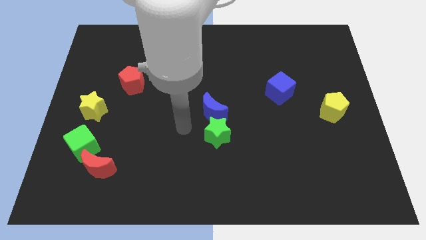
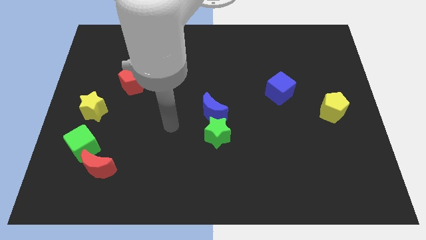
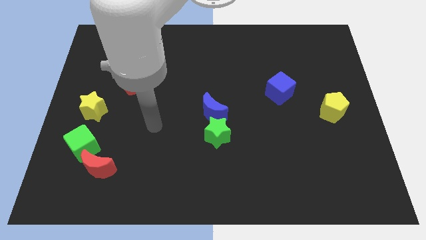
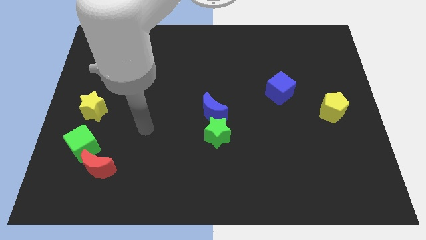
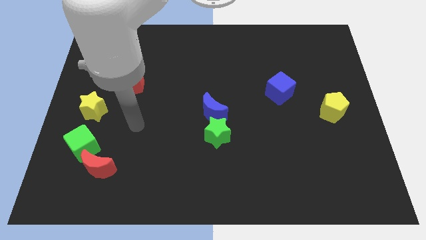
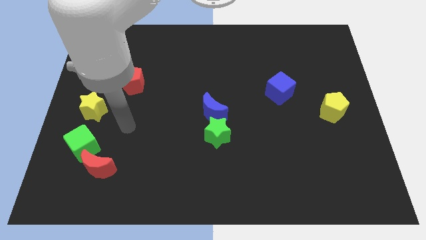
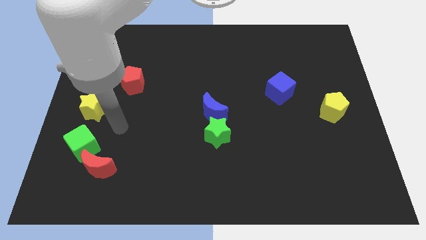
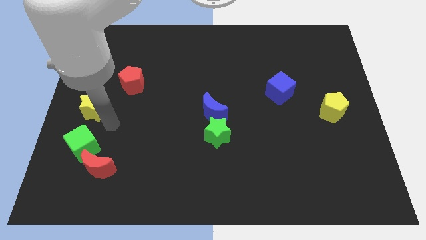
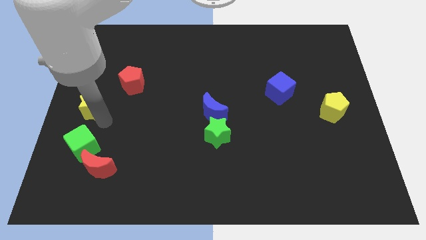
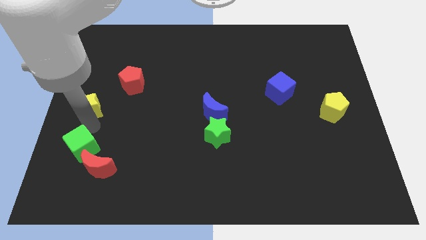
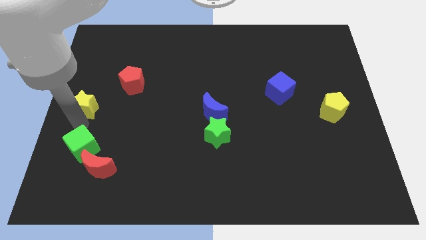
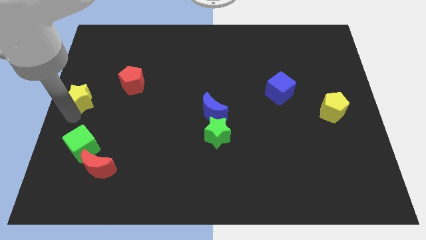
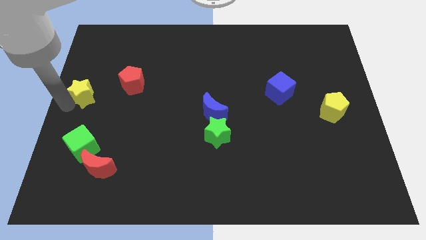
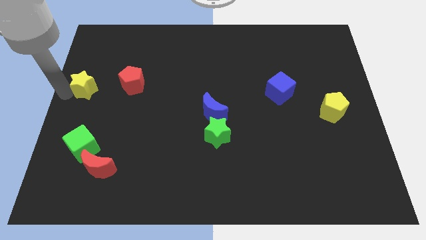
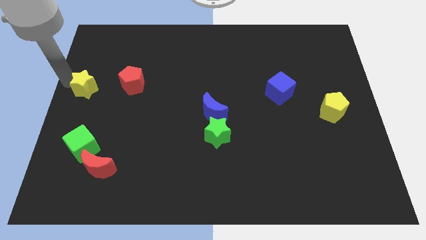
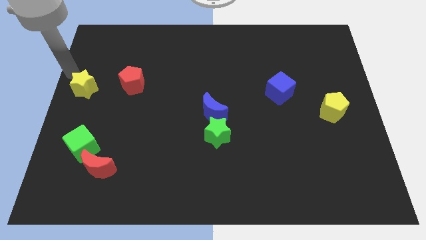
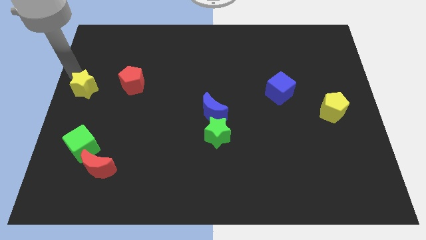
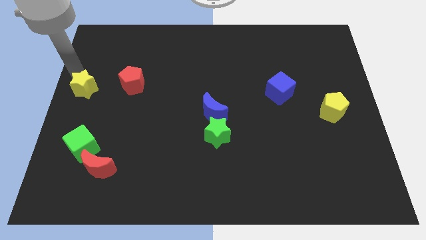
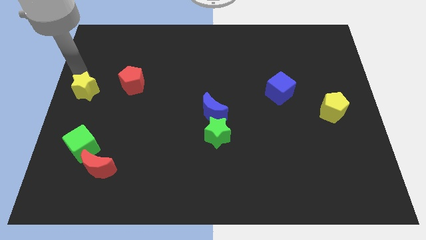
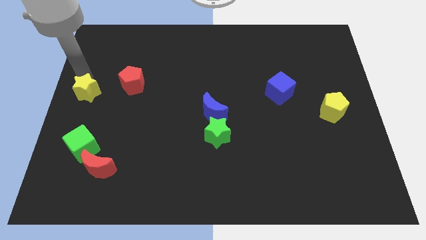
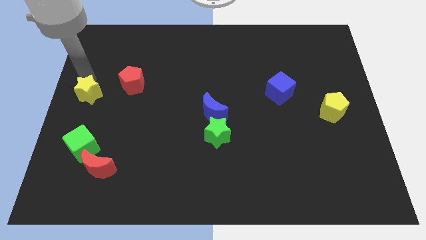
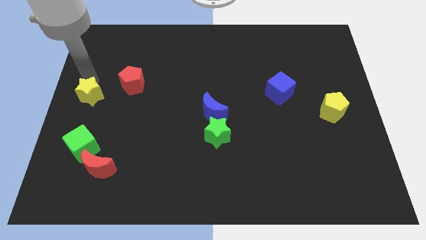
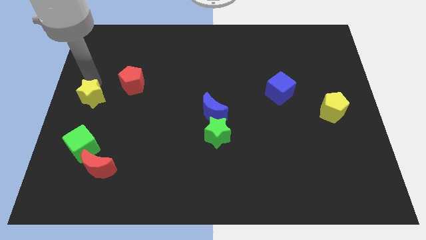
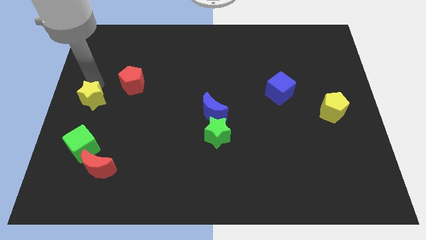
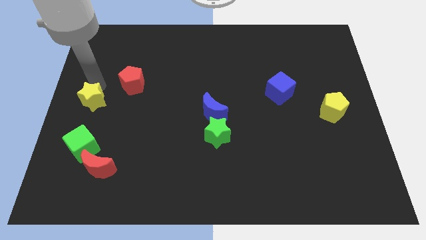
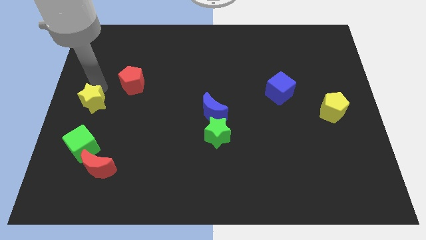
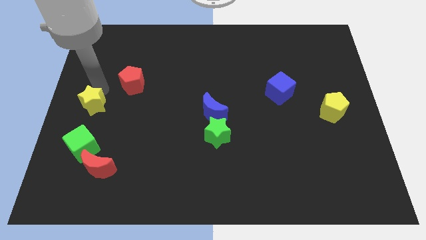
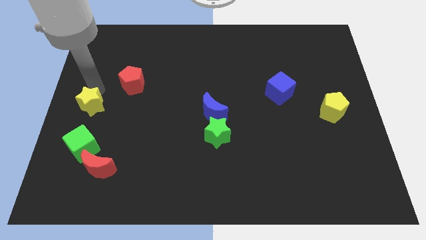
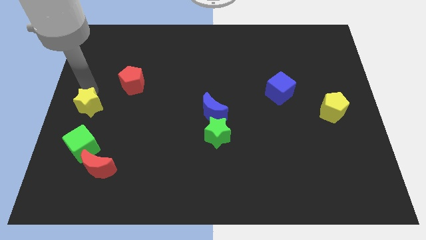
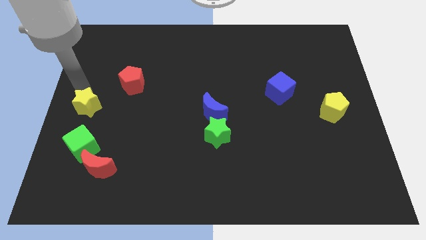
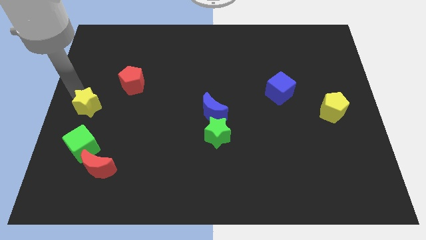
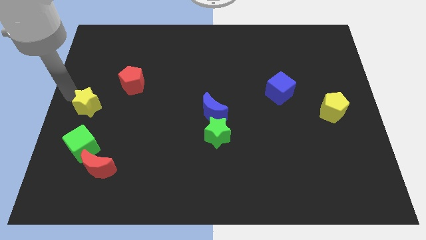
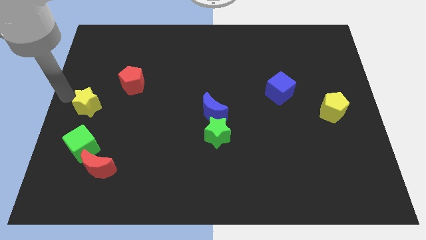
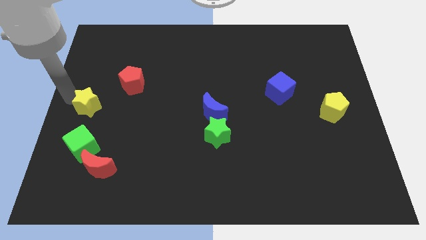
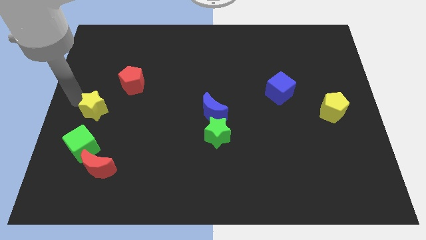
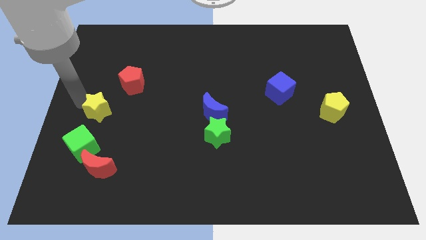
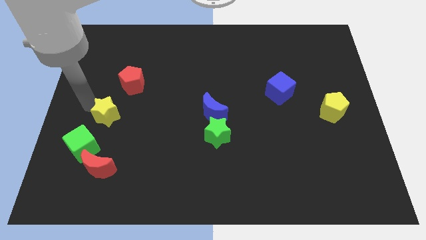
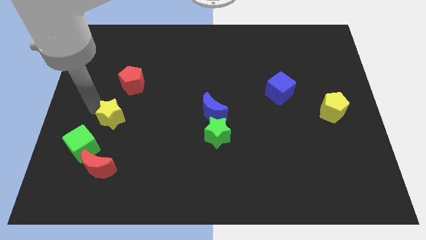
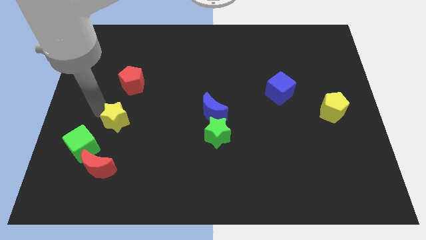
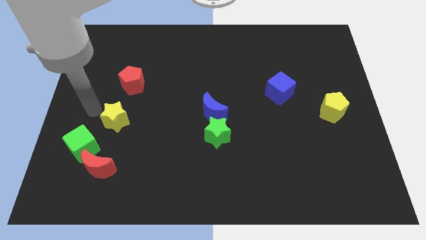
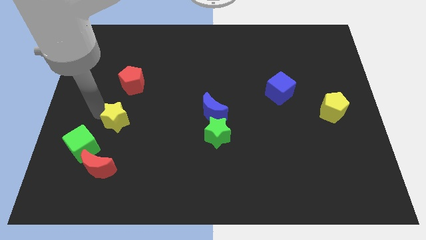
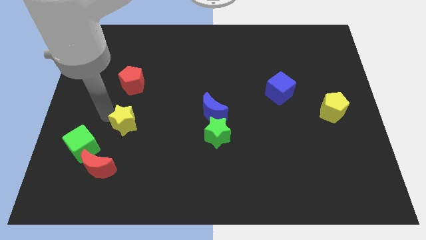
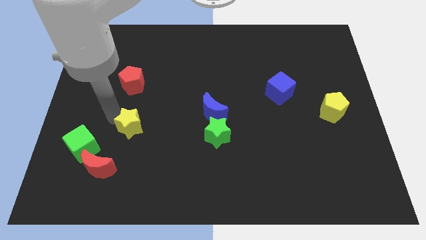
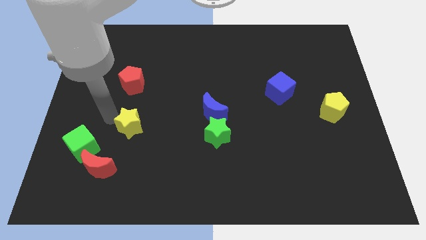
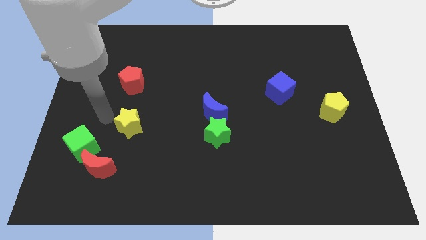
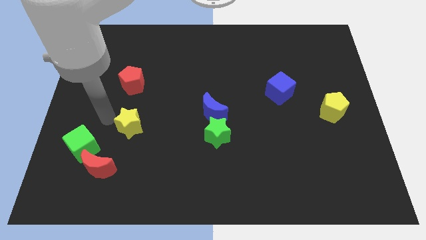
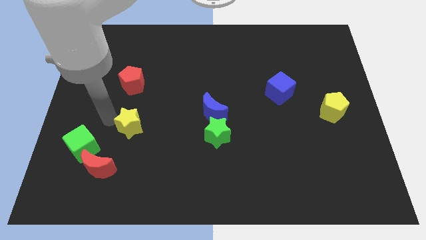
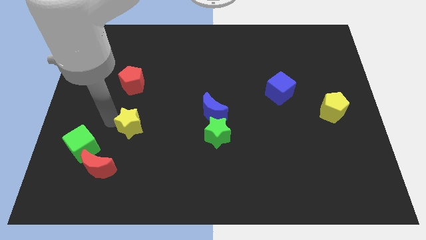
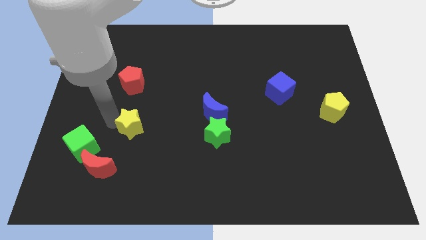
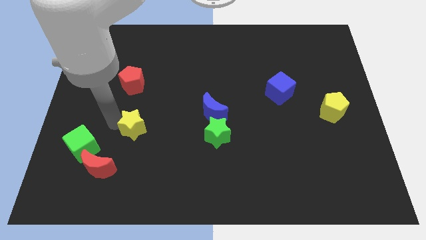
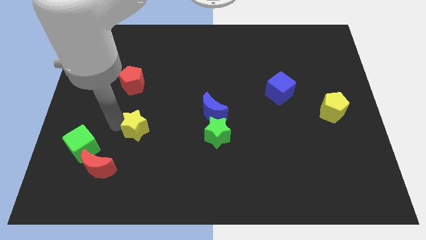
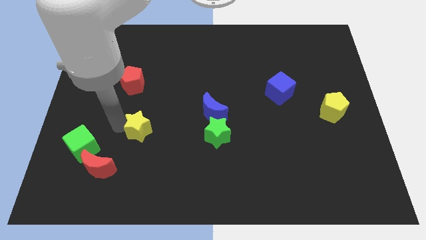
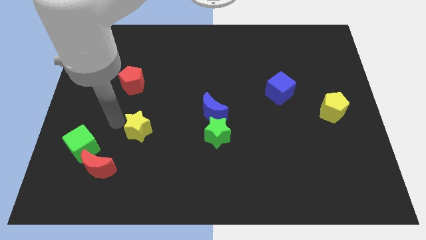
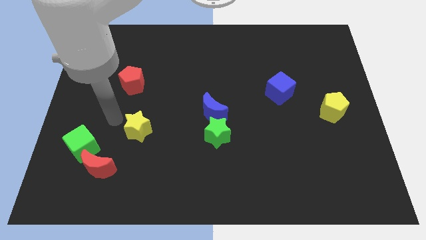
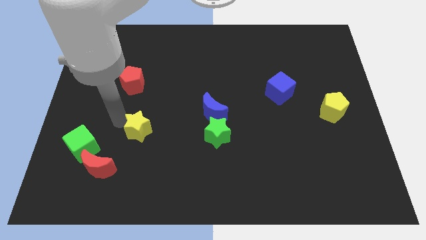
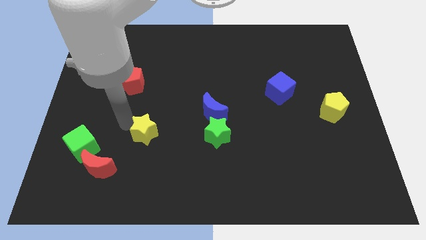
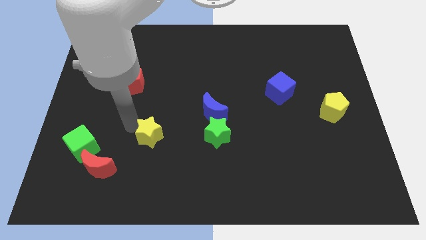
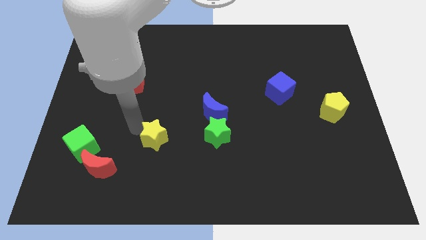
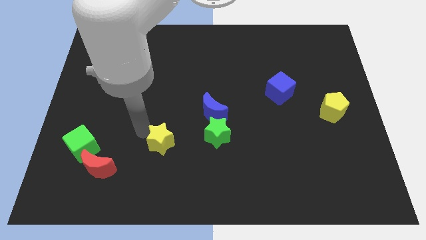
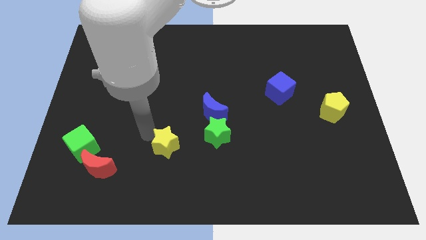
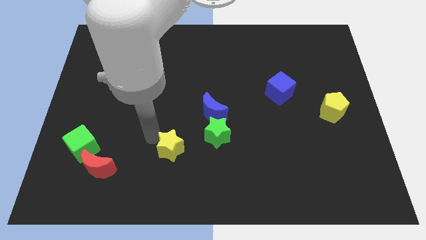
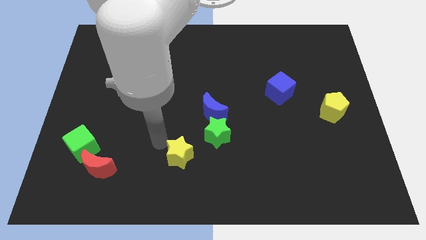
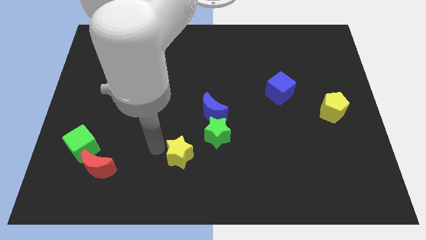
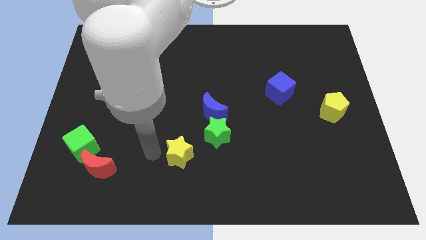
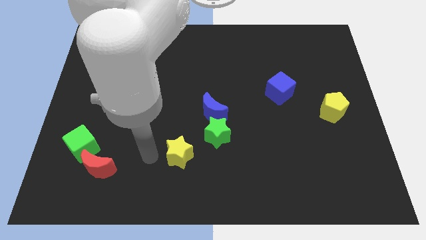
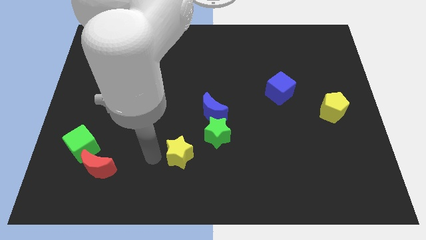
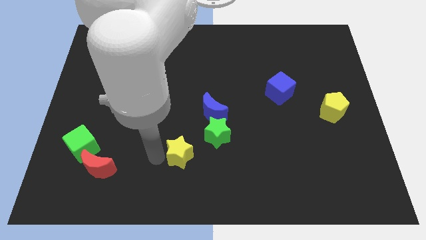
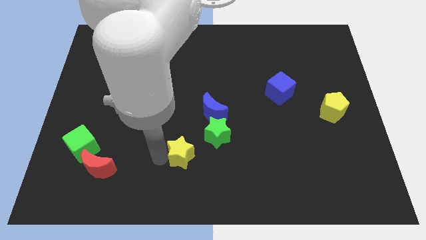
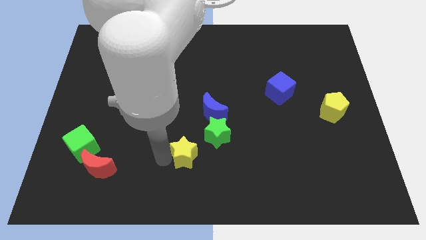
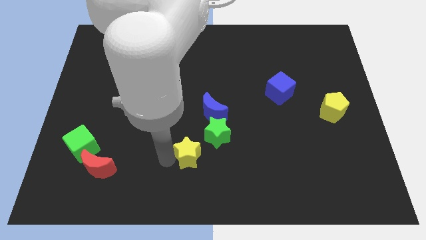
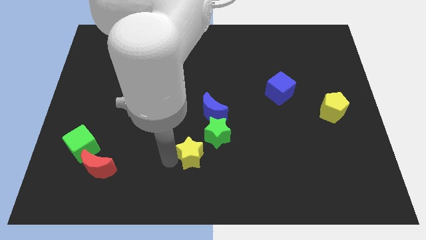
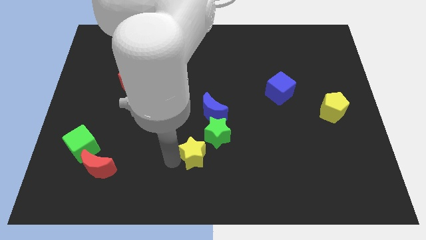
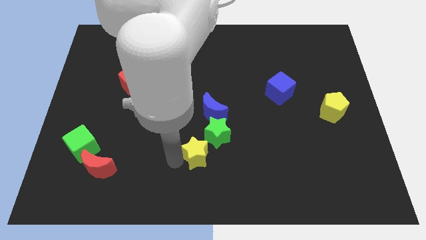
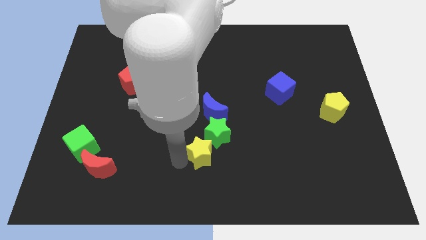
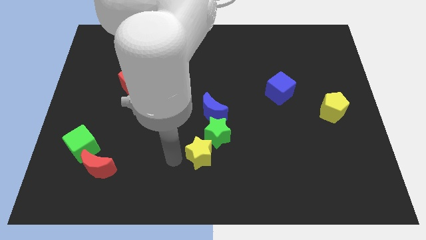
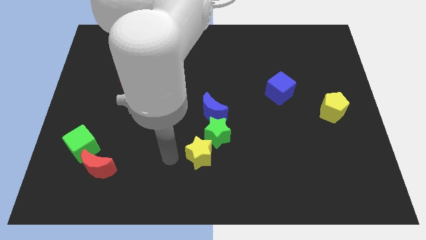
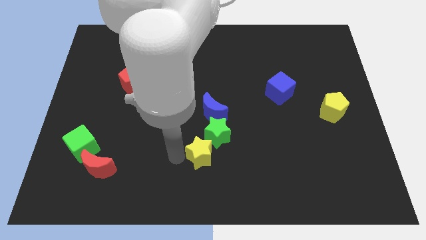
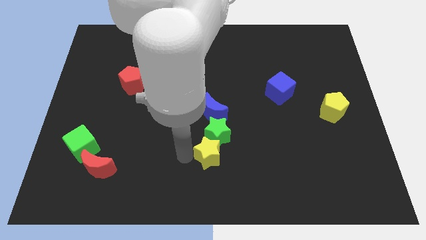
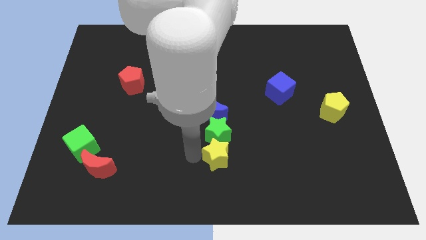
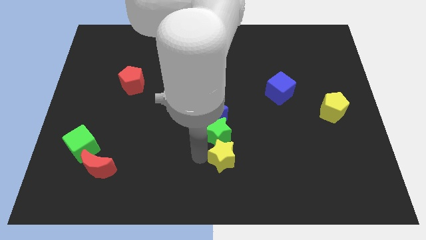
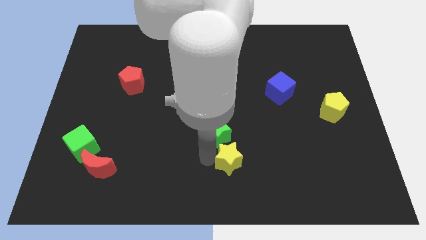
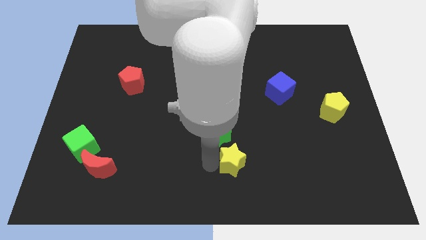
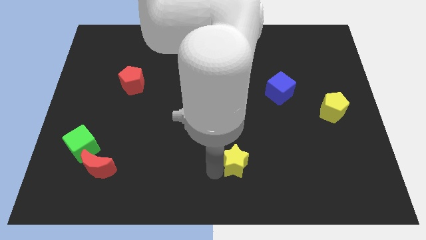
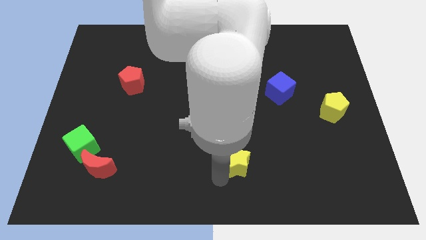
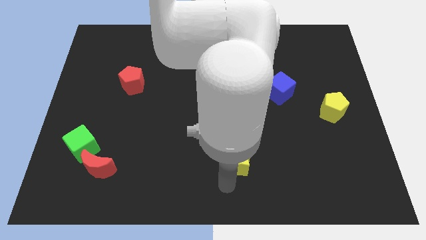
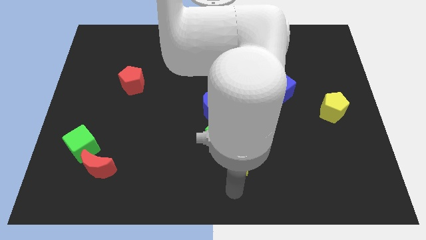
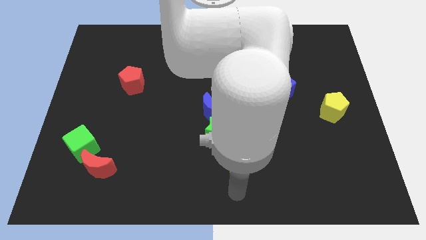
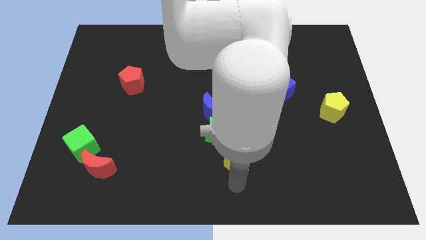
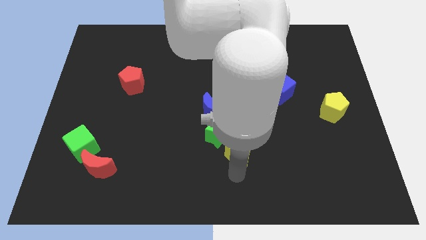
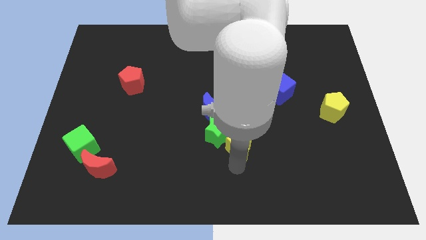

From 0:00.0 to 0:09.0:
move the yellow star to the bottom right of the blue moon
